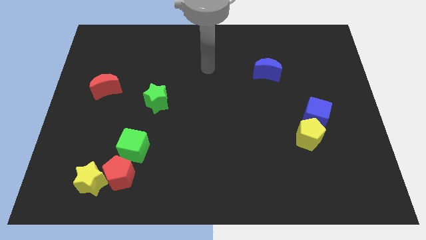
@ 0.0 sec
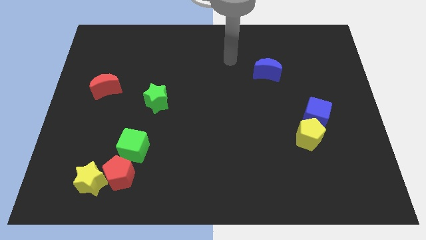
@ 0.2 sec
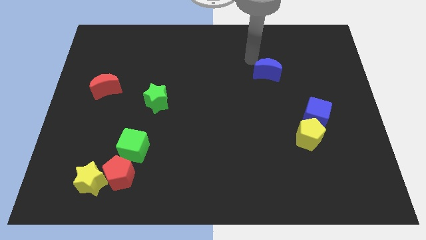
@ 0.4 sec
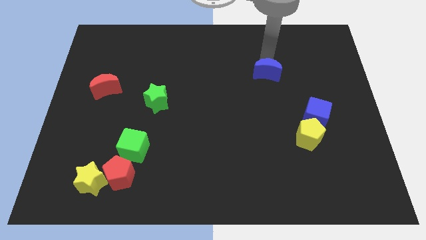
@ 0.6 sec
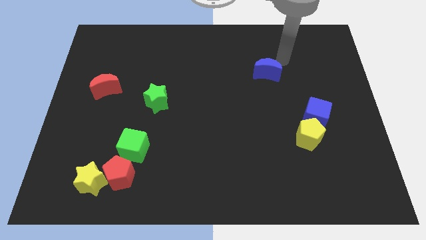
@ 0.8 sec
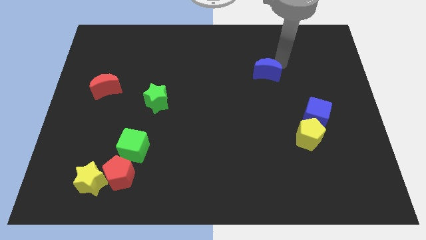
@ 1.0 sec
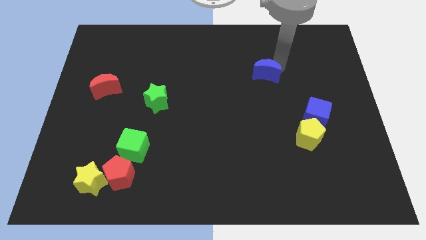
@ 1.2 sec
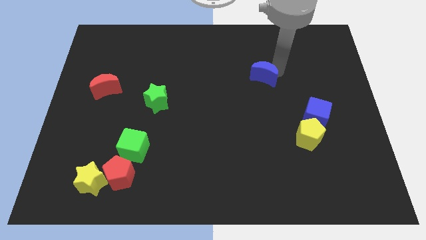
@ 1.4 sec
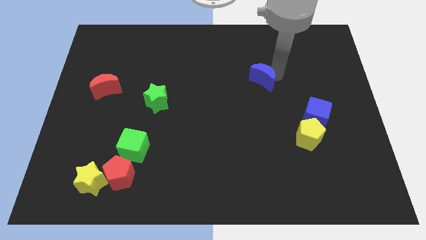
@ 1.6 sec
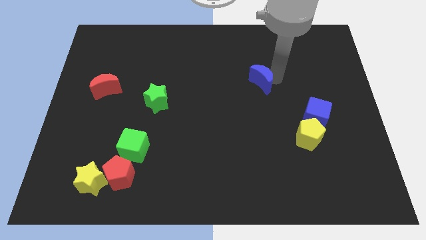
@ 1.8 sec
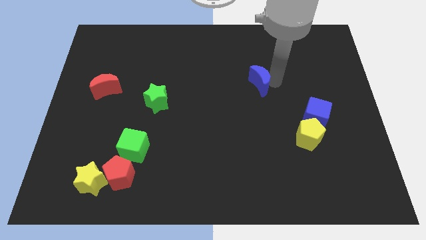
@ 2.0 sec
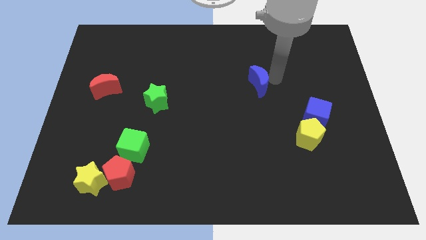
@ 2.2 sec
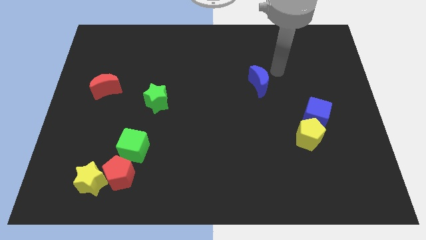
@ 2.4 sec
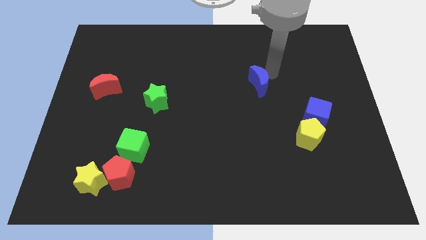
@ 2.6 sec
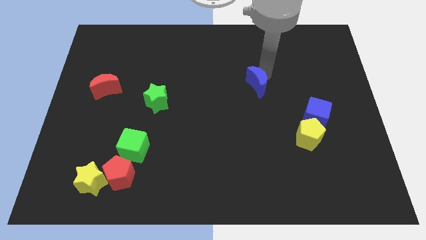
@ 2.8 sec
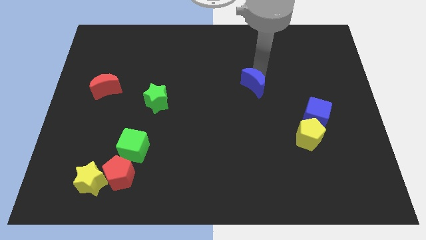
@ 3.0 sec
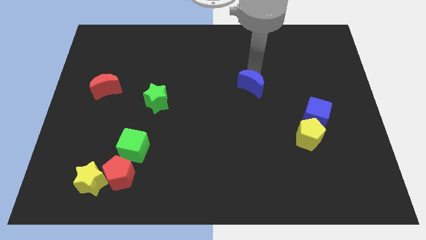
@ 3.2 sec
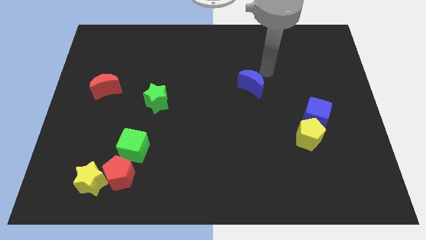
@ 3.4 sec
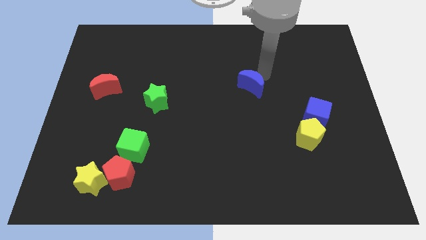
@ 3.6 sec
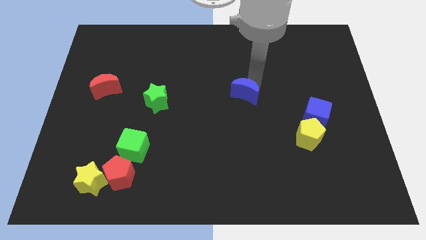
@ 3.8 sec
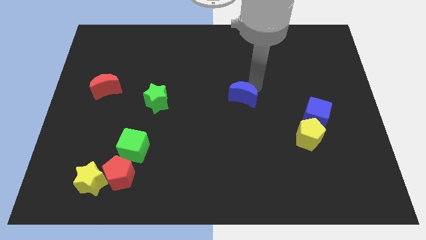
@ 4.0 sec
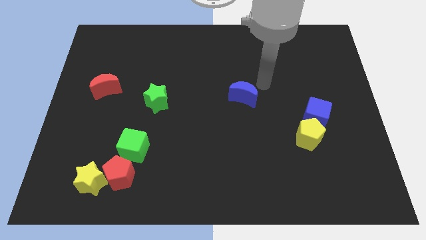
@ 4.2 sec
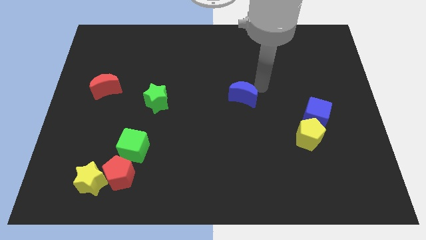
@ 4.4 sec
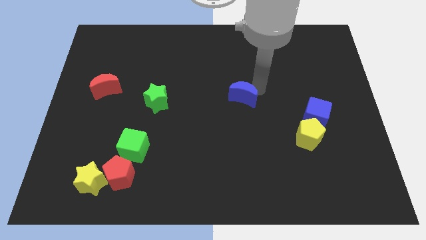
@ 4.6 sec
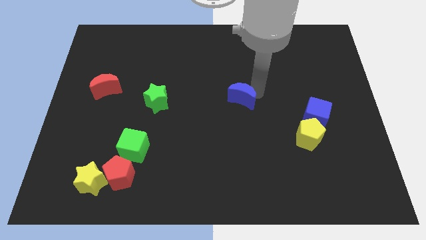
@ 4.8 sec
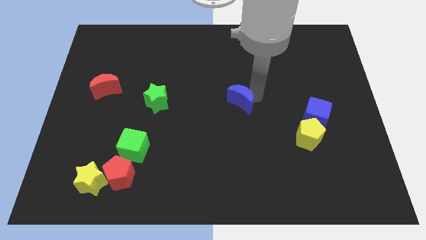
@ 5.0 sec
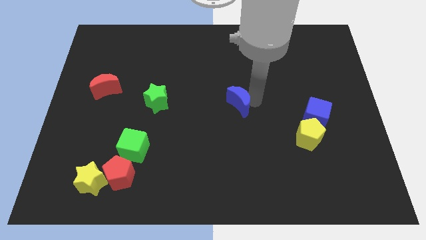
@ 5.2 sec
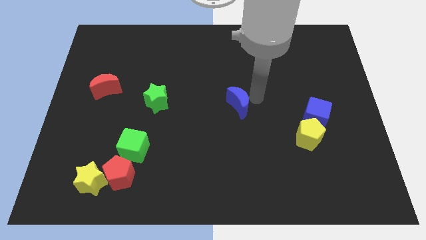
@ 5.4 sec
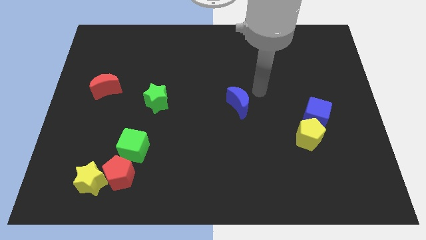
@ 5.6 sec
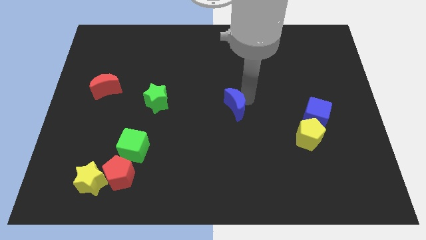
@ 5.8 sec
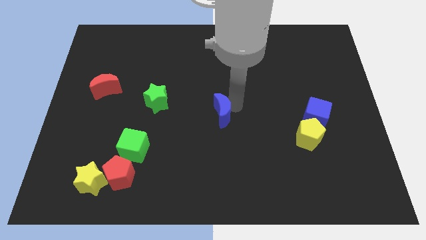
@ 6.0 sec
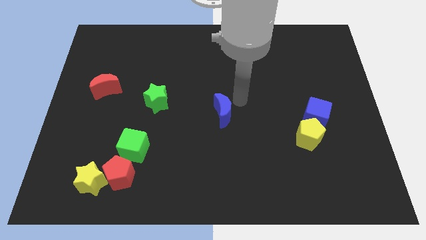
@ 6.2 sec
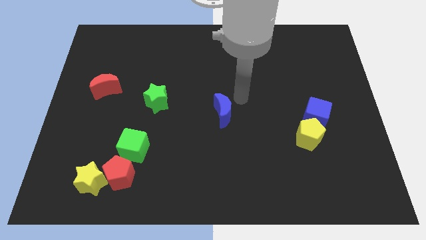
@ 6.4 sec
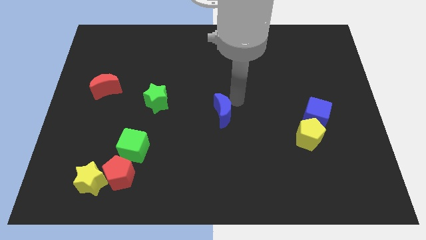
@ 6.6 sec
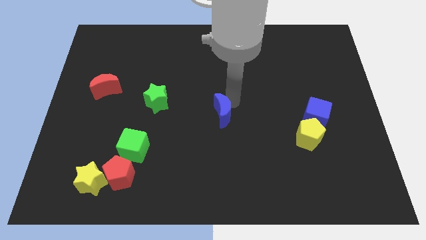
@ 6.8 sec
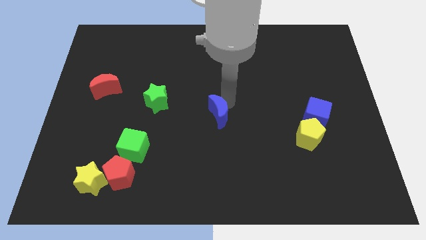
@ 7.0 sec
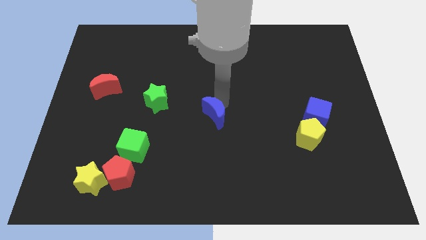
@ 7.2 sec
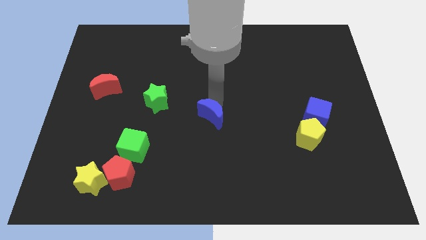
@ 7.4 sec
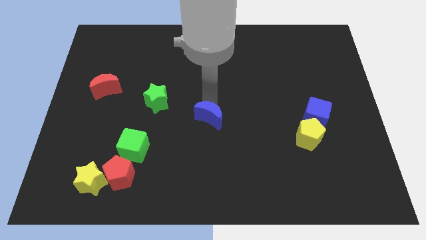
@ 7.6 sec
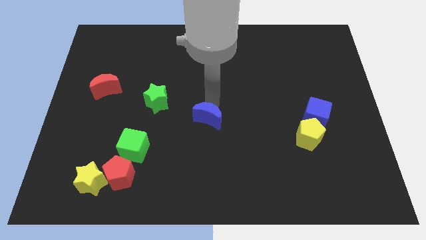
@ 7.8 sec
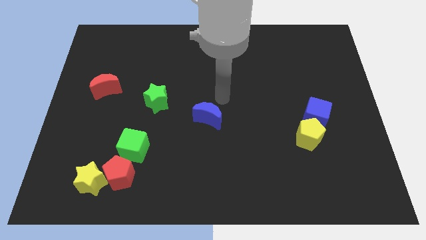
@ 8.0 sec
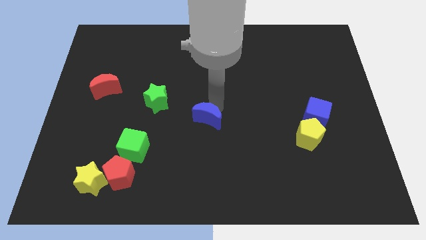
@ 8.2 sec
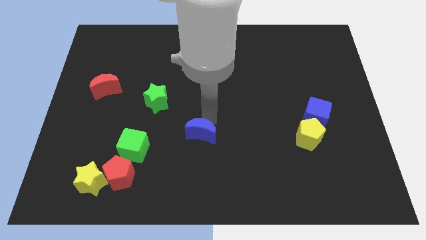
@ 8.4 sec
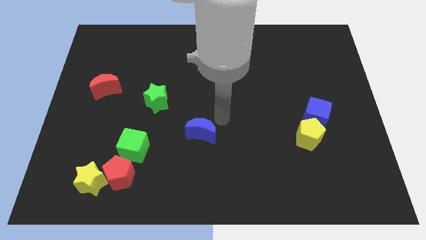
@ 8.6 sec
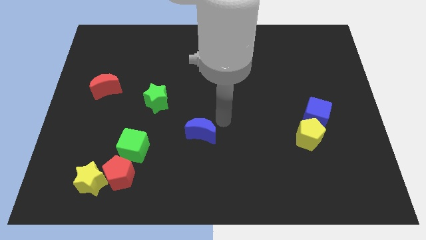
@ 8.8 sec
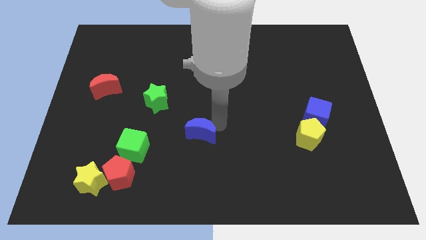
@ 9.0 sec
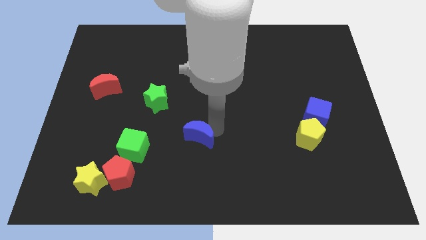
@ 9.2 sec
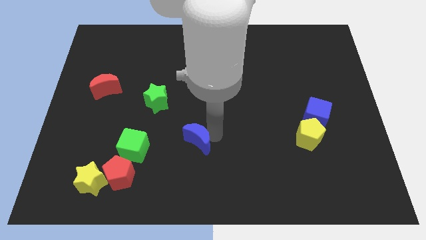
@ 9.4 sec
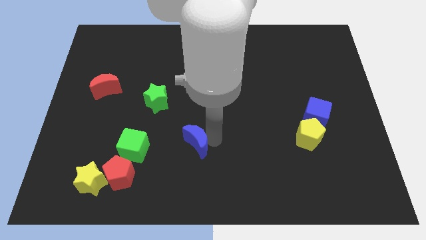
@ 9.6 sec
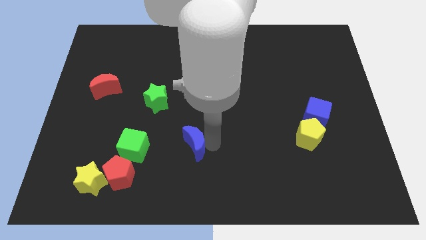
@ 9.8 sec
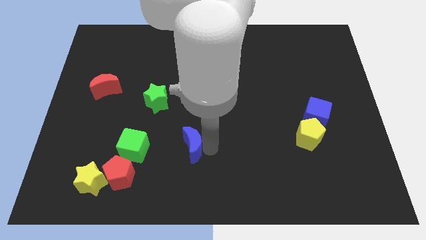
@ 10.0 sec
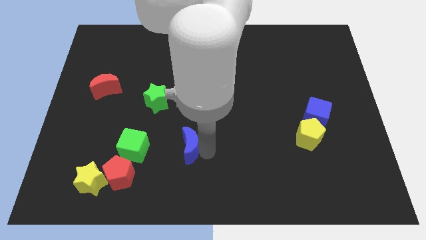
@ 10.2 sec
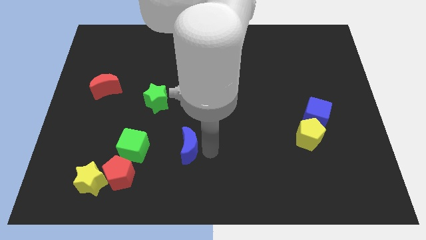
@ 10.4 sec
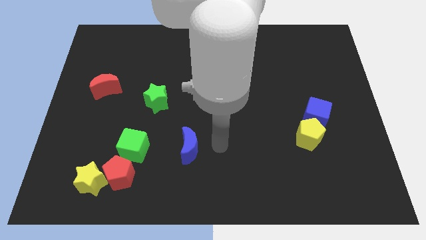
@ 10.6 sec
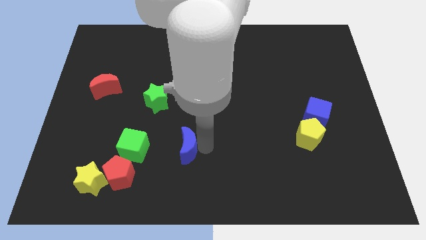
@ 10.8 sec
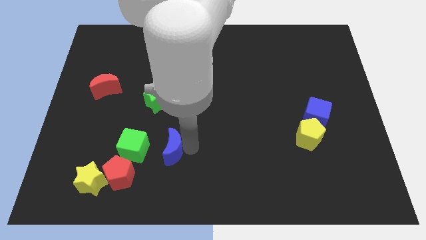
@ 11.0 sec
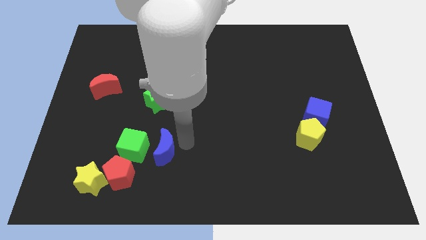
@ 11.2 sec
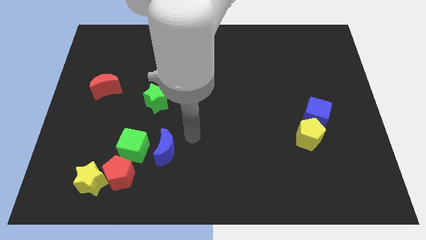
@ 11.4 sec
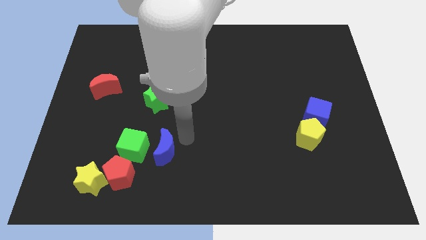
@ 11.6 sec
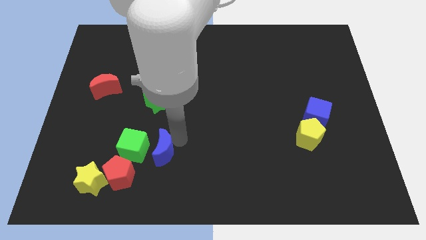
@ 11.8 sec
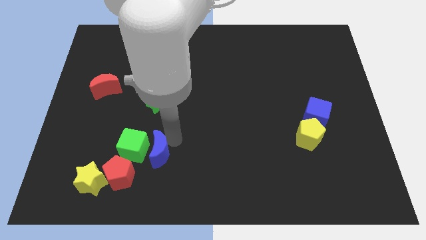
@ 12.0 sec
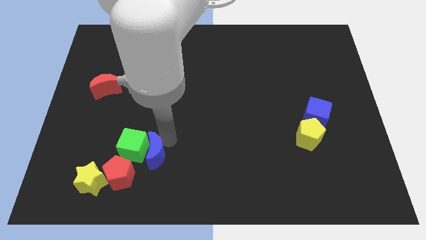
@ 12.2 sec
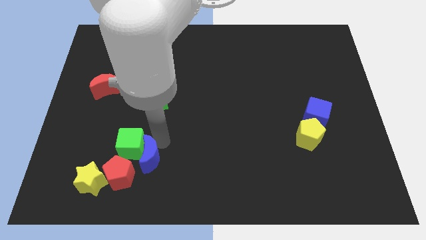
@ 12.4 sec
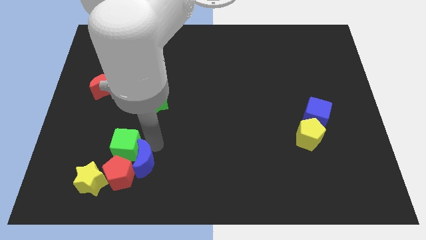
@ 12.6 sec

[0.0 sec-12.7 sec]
put the blue moon to the red pentagon

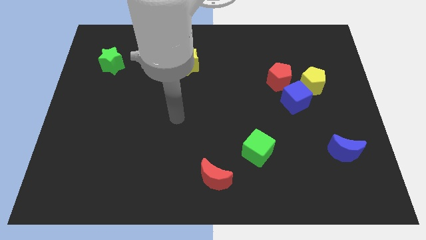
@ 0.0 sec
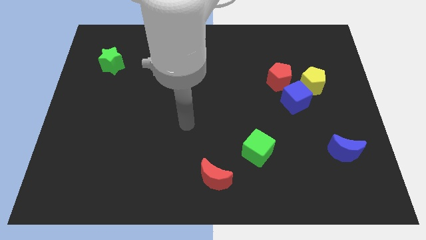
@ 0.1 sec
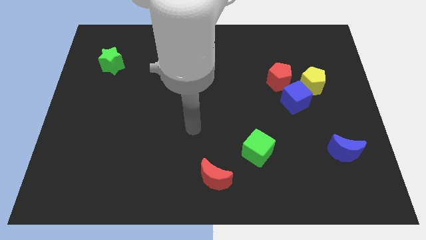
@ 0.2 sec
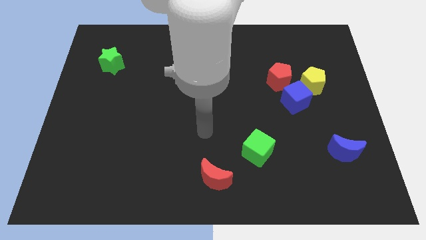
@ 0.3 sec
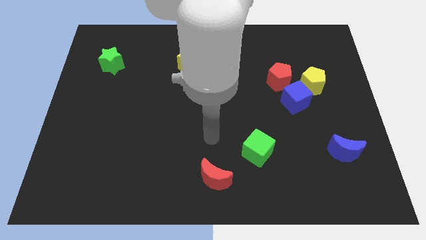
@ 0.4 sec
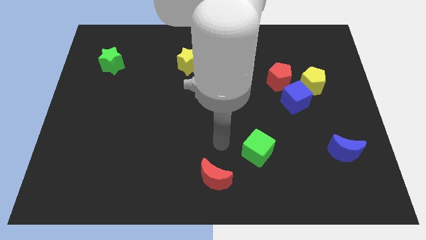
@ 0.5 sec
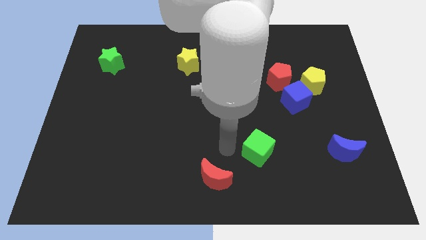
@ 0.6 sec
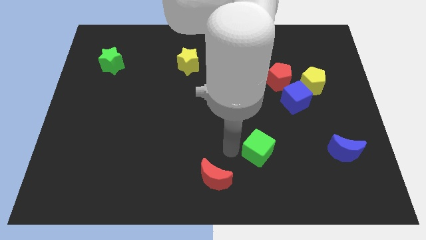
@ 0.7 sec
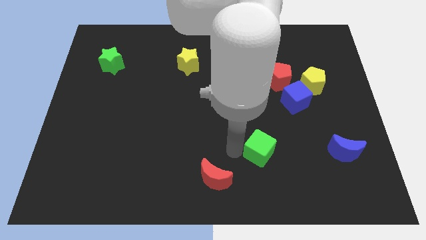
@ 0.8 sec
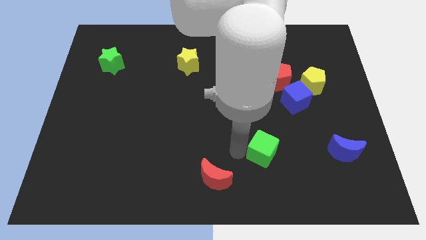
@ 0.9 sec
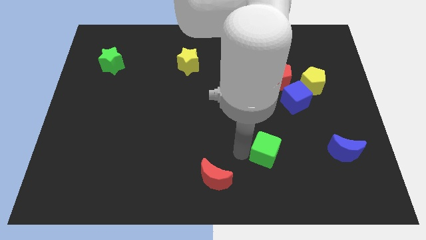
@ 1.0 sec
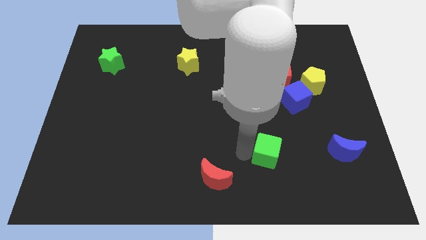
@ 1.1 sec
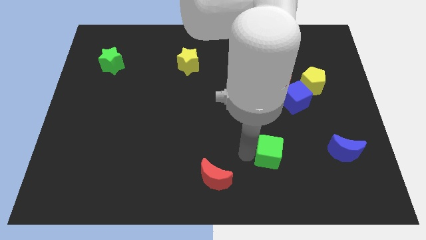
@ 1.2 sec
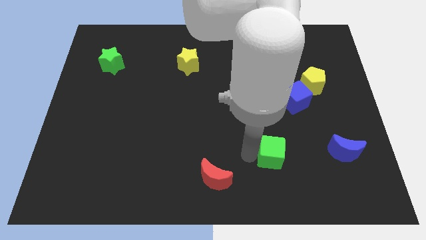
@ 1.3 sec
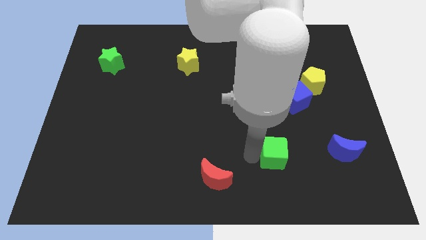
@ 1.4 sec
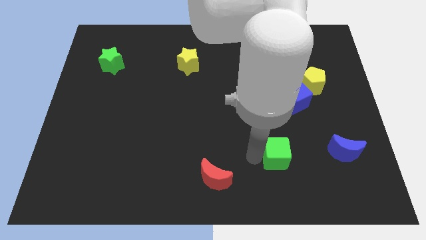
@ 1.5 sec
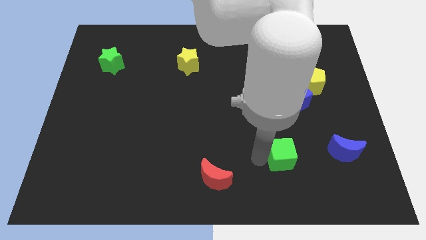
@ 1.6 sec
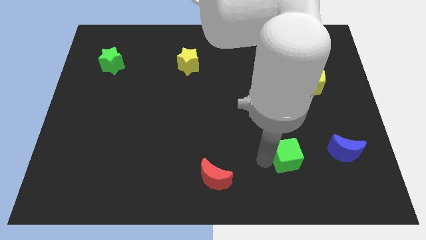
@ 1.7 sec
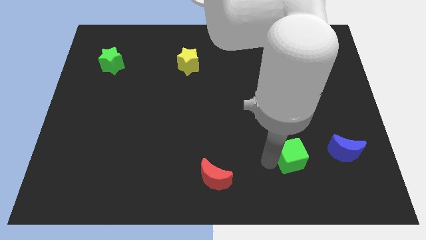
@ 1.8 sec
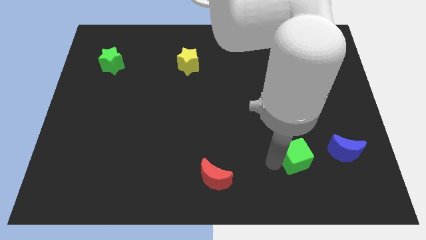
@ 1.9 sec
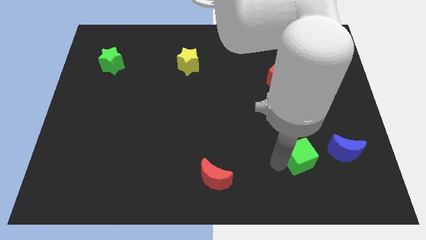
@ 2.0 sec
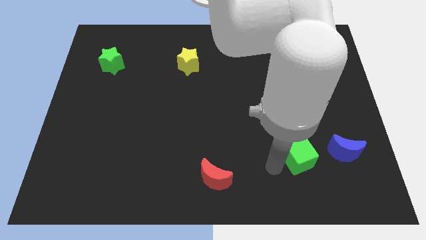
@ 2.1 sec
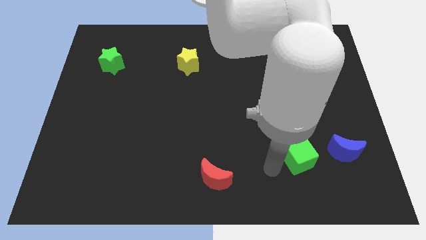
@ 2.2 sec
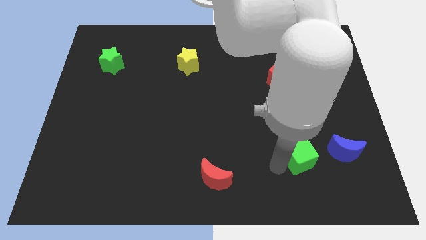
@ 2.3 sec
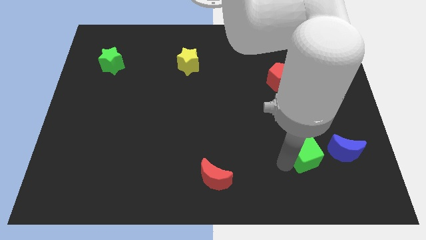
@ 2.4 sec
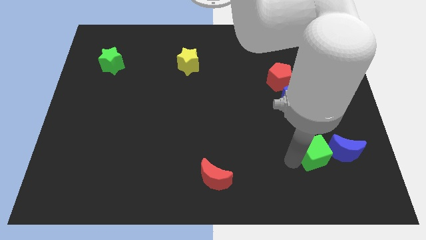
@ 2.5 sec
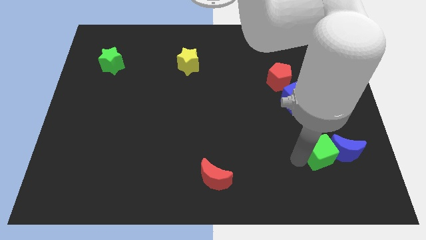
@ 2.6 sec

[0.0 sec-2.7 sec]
push the green cube next to the blue moon
